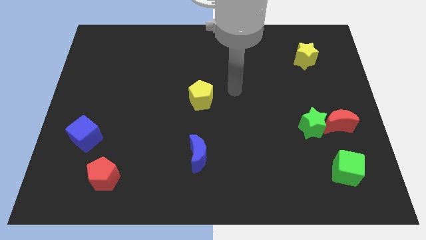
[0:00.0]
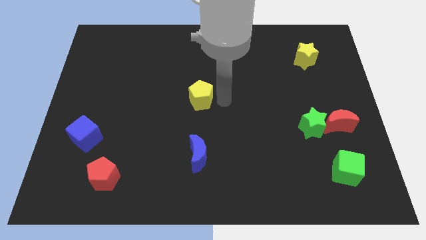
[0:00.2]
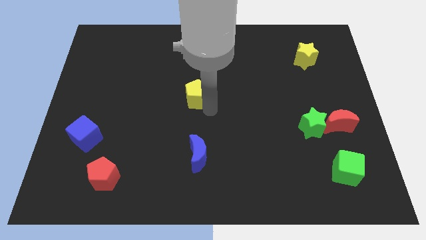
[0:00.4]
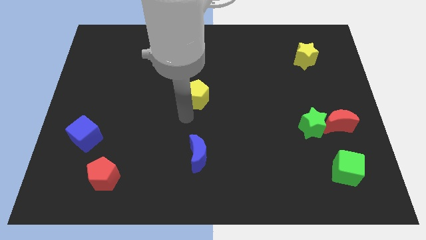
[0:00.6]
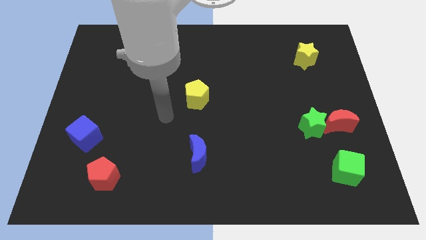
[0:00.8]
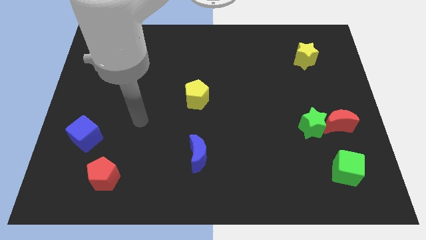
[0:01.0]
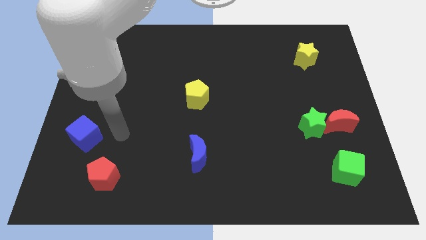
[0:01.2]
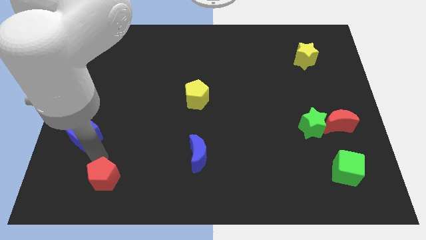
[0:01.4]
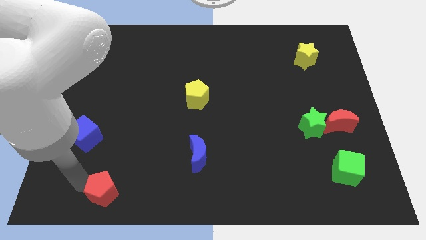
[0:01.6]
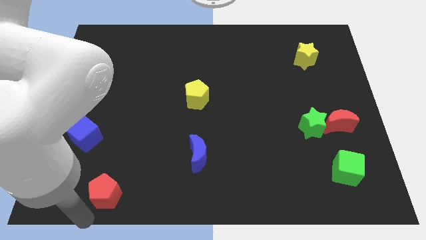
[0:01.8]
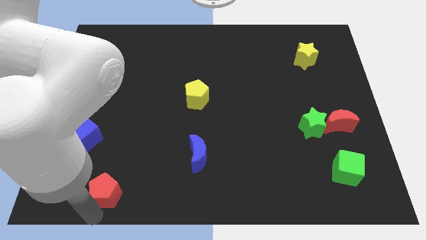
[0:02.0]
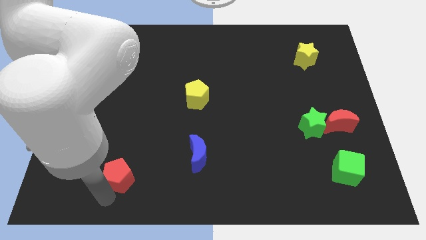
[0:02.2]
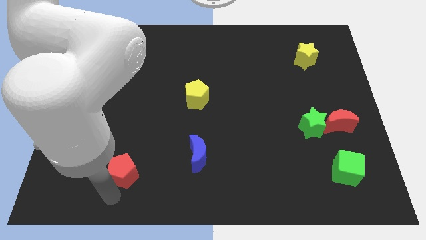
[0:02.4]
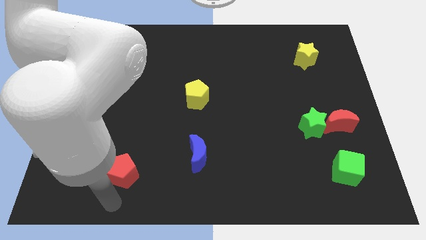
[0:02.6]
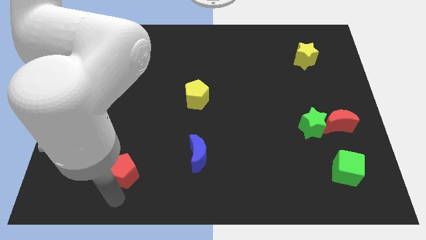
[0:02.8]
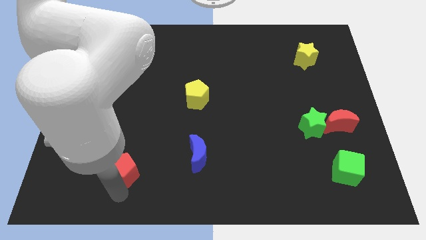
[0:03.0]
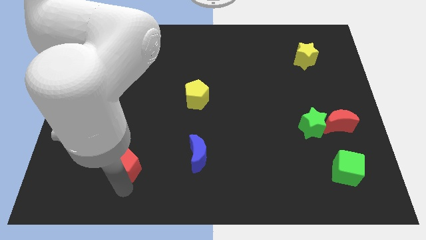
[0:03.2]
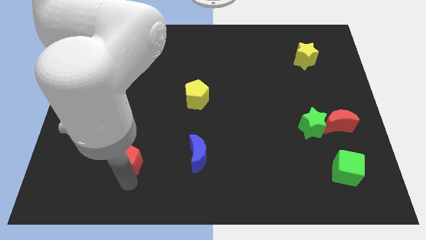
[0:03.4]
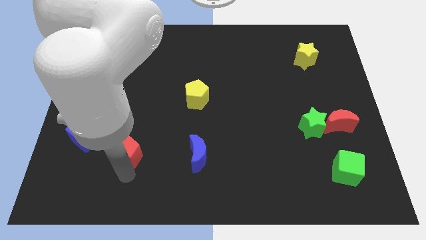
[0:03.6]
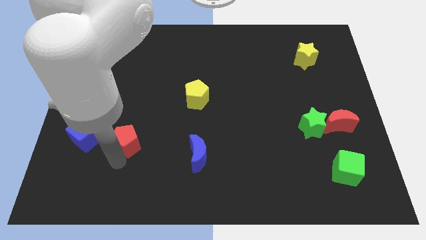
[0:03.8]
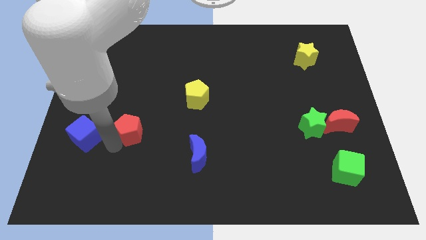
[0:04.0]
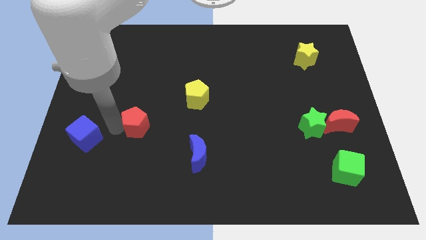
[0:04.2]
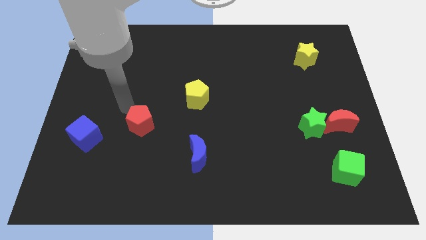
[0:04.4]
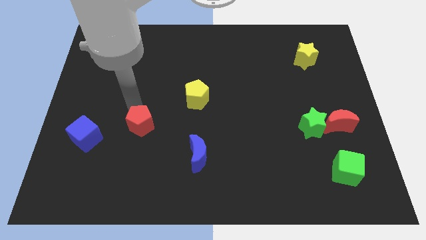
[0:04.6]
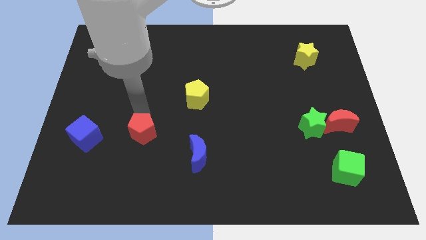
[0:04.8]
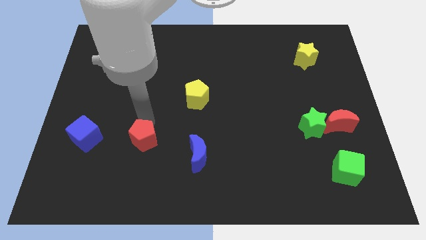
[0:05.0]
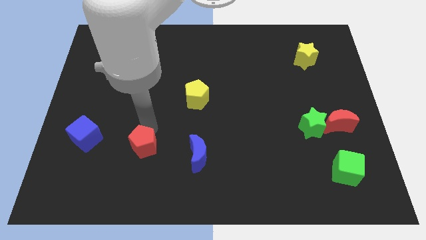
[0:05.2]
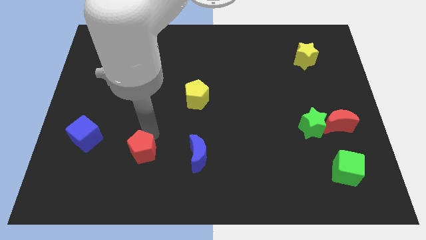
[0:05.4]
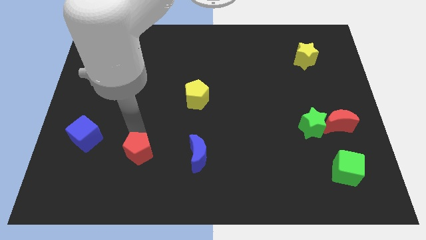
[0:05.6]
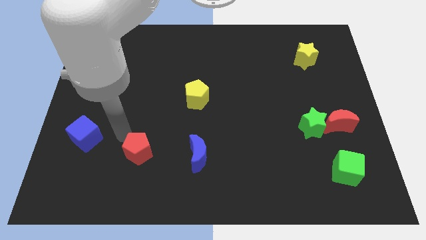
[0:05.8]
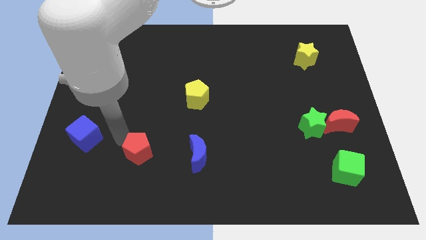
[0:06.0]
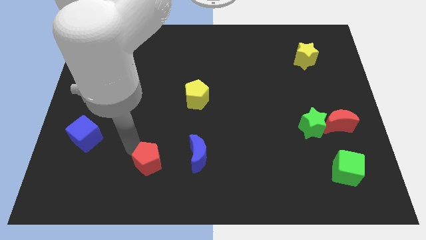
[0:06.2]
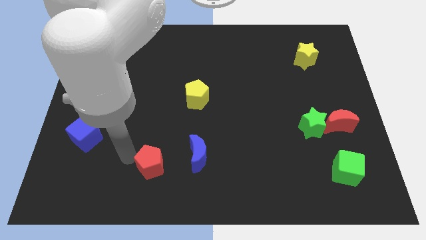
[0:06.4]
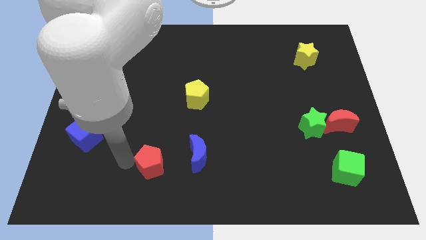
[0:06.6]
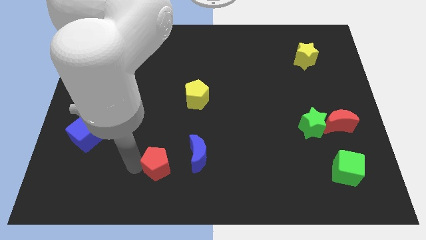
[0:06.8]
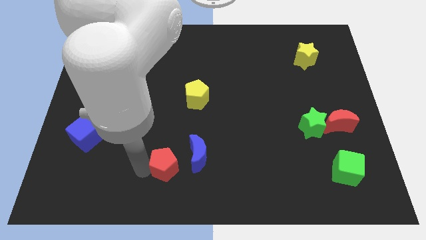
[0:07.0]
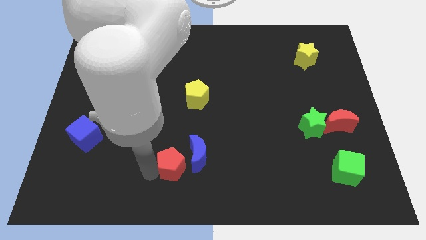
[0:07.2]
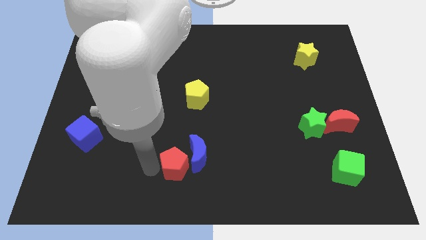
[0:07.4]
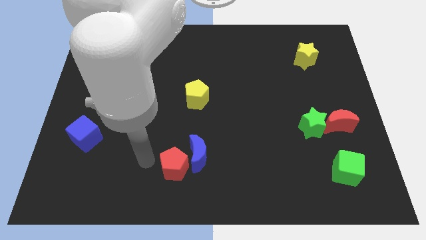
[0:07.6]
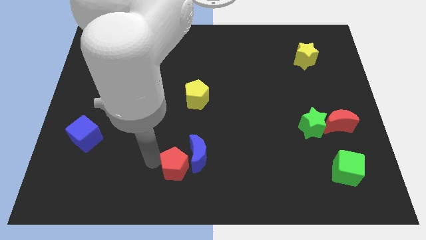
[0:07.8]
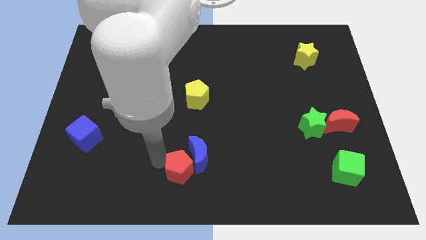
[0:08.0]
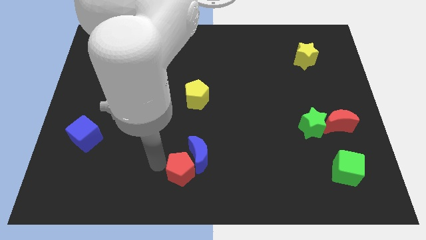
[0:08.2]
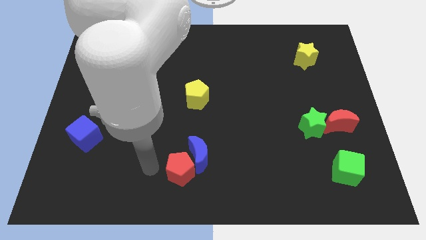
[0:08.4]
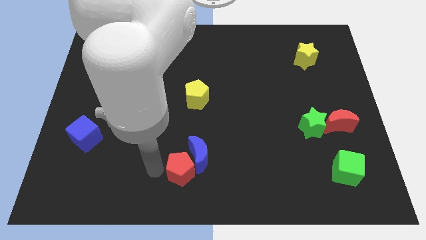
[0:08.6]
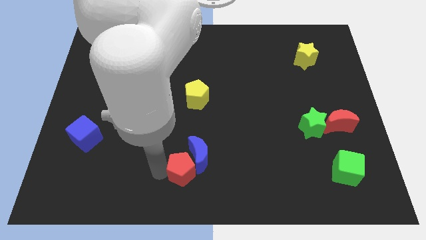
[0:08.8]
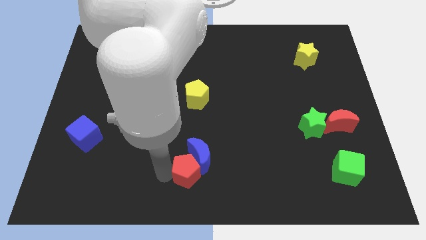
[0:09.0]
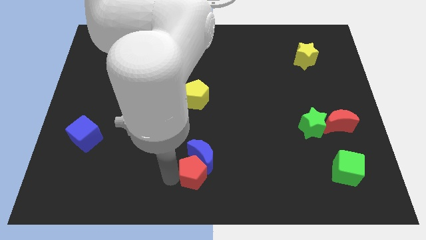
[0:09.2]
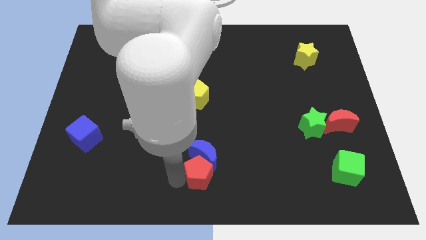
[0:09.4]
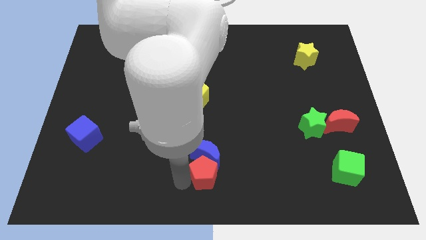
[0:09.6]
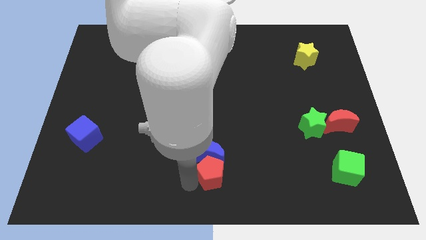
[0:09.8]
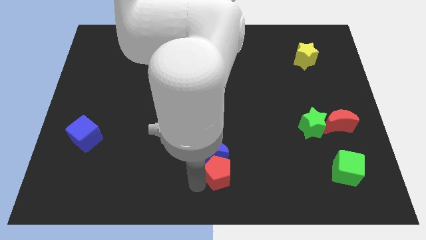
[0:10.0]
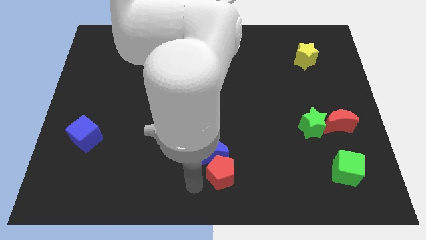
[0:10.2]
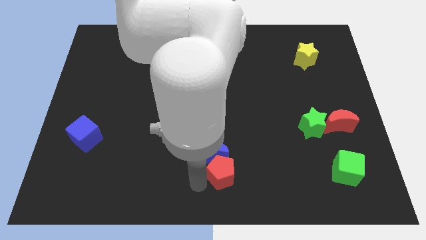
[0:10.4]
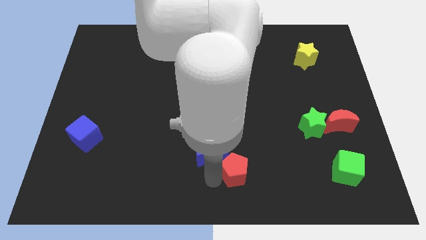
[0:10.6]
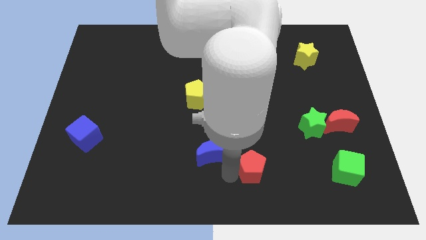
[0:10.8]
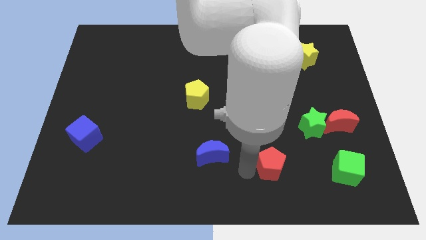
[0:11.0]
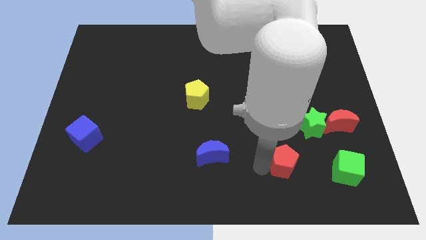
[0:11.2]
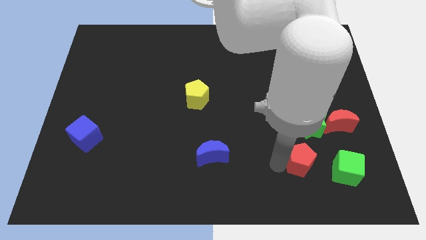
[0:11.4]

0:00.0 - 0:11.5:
push the red pentagon to the bottom side of the green star
